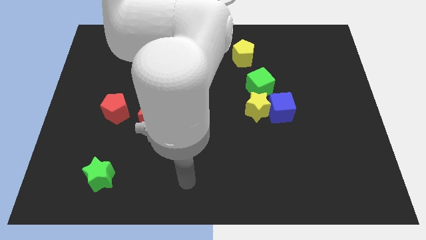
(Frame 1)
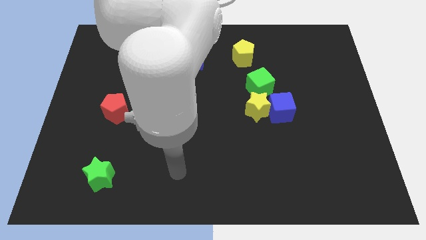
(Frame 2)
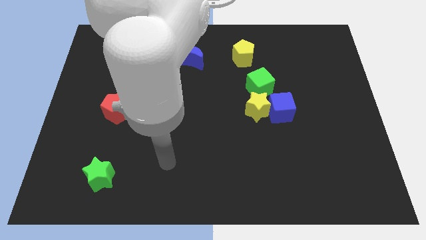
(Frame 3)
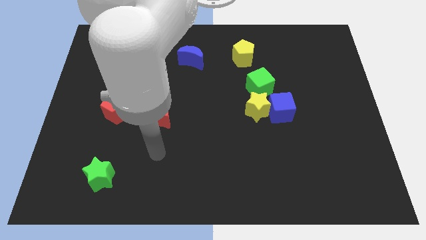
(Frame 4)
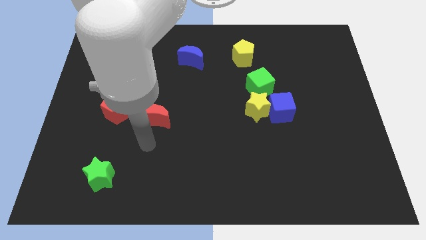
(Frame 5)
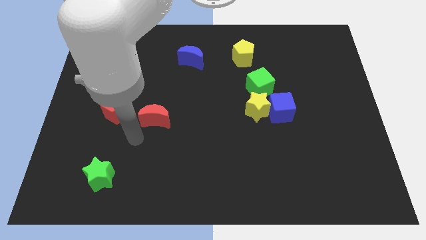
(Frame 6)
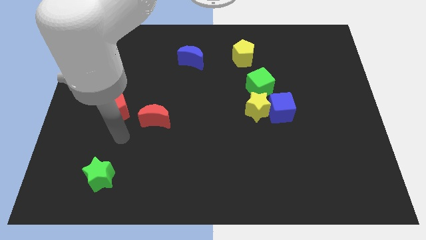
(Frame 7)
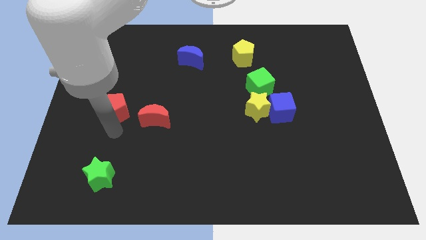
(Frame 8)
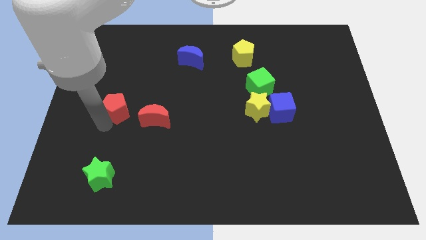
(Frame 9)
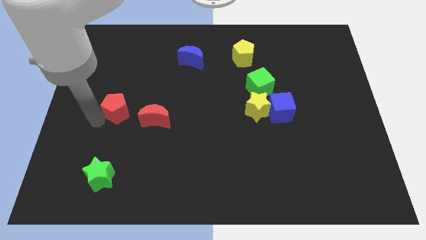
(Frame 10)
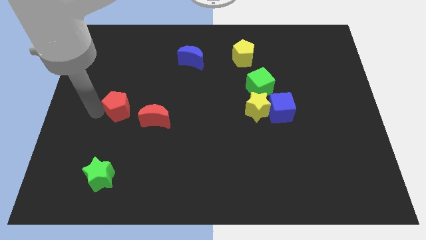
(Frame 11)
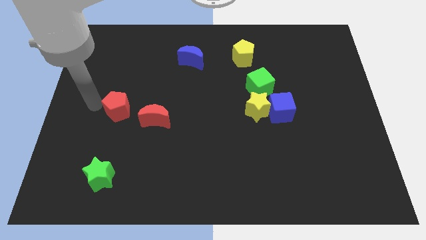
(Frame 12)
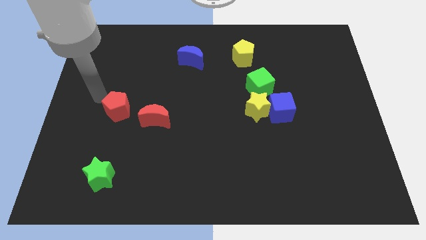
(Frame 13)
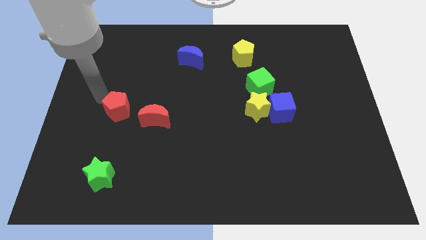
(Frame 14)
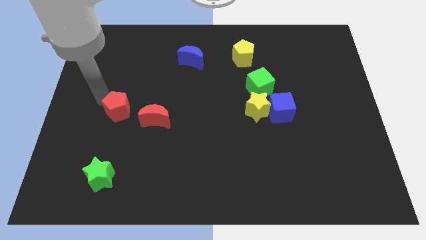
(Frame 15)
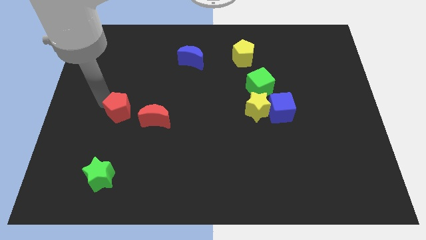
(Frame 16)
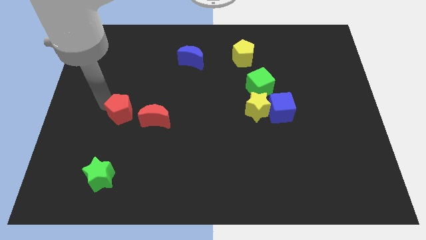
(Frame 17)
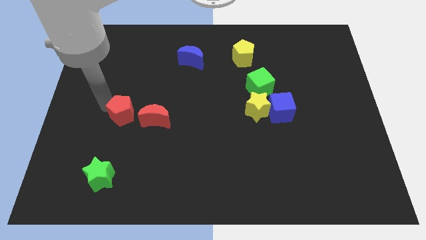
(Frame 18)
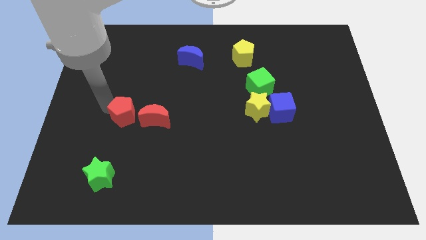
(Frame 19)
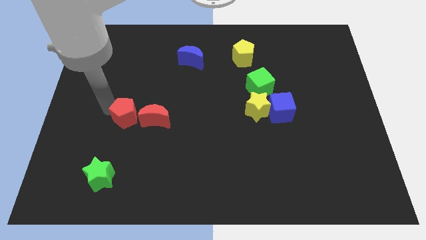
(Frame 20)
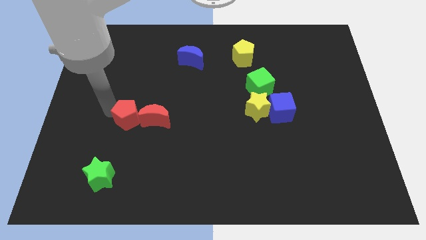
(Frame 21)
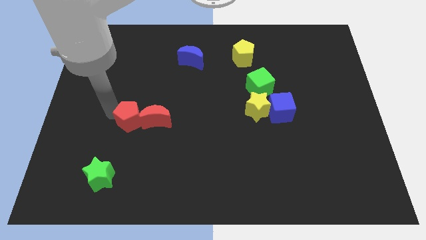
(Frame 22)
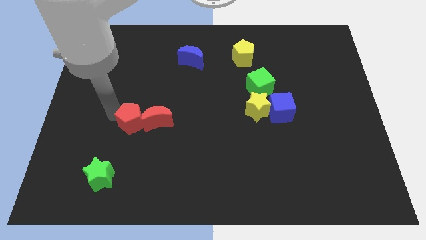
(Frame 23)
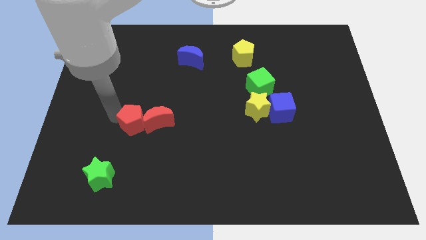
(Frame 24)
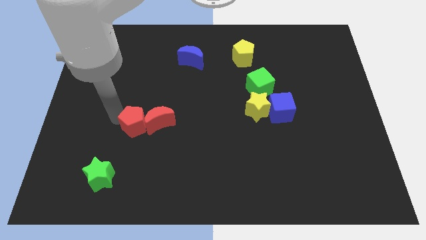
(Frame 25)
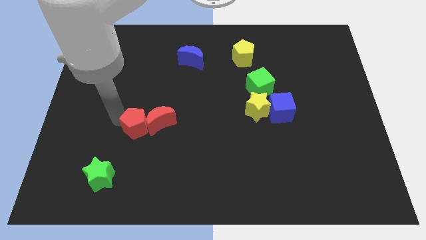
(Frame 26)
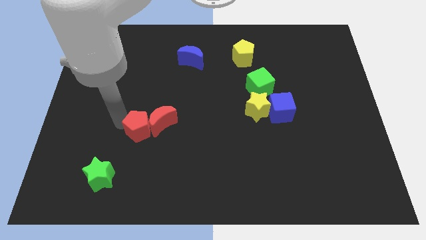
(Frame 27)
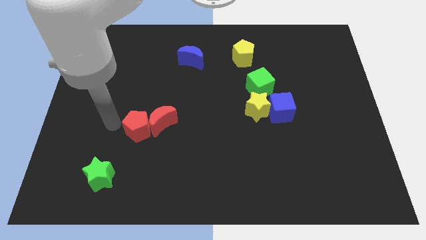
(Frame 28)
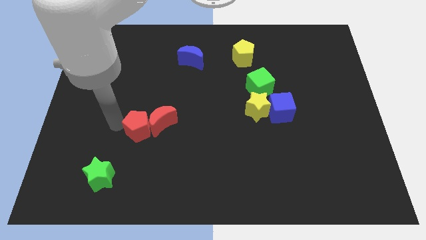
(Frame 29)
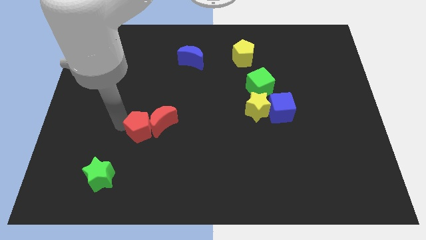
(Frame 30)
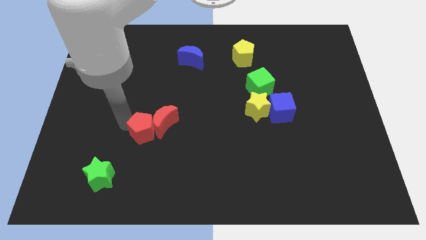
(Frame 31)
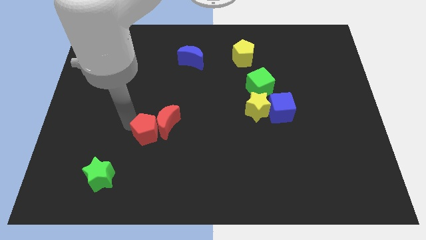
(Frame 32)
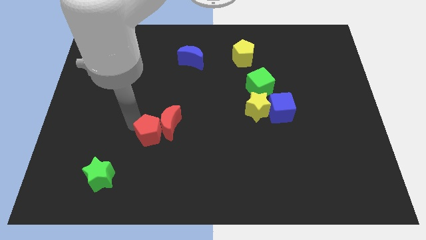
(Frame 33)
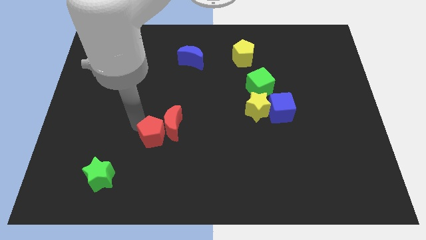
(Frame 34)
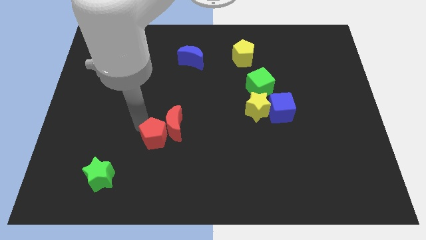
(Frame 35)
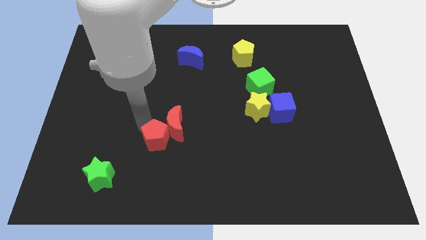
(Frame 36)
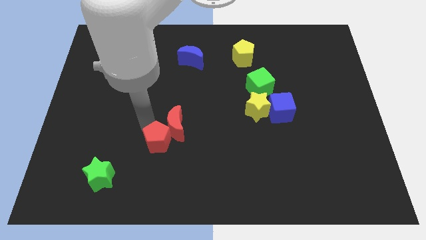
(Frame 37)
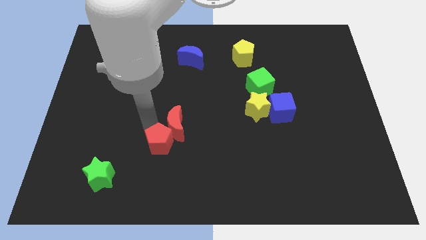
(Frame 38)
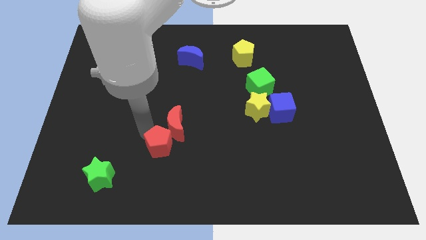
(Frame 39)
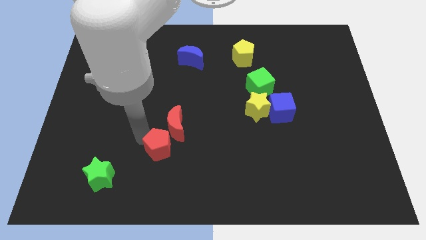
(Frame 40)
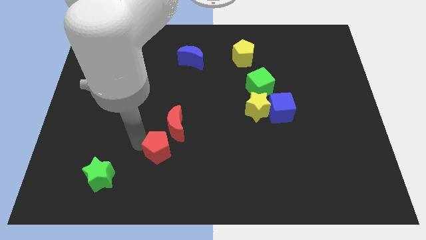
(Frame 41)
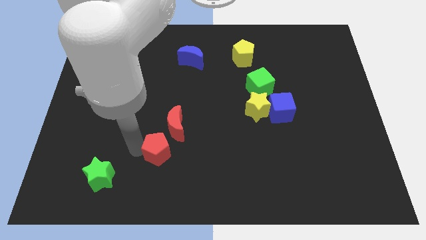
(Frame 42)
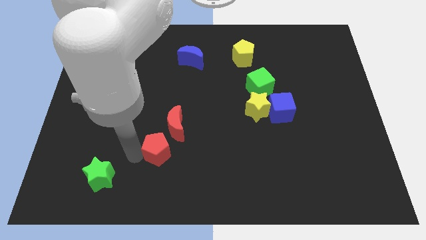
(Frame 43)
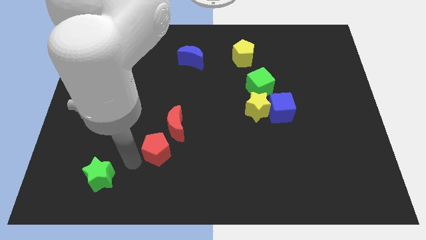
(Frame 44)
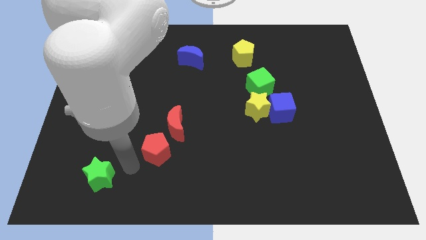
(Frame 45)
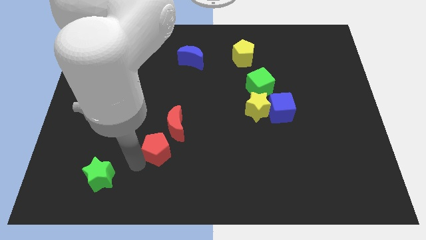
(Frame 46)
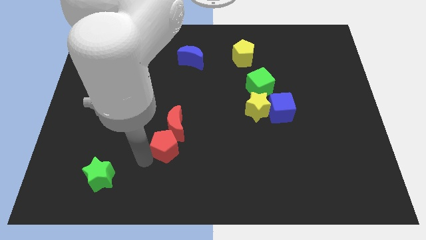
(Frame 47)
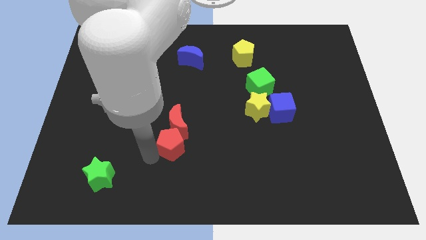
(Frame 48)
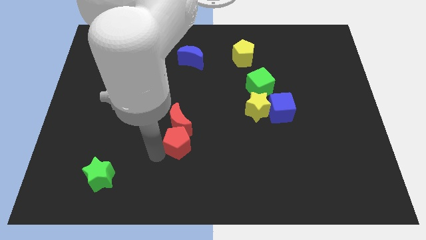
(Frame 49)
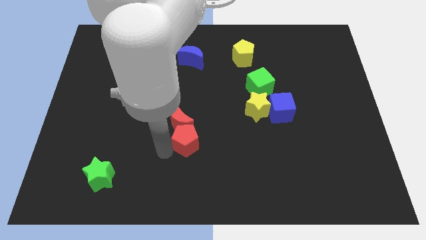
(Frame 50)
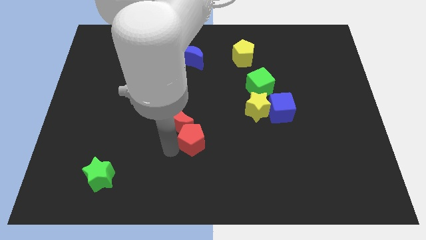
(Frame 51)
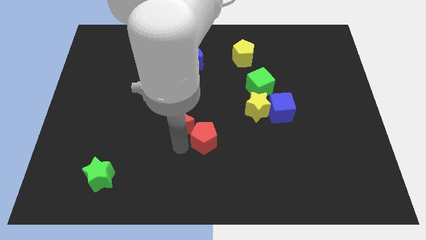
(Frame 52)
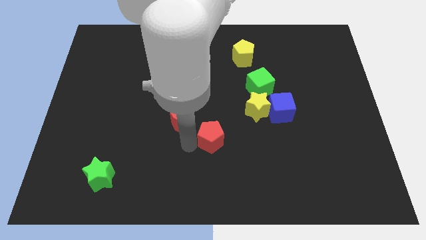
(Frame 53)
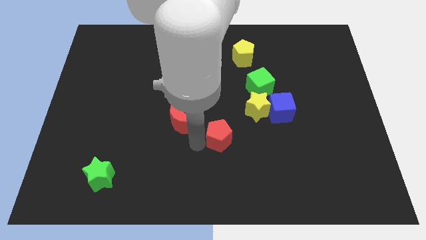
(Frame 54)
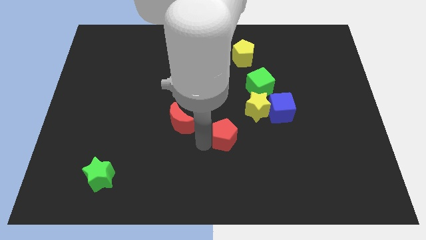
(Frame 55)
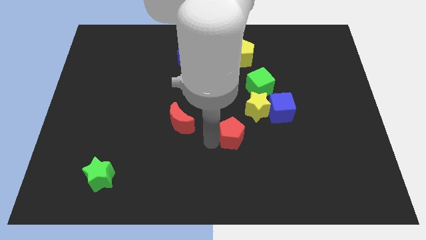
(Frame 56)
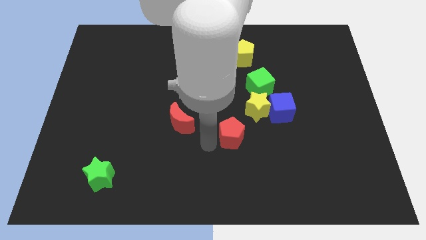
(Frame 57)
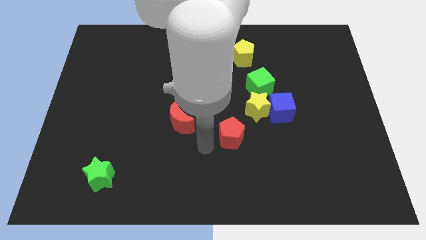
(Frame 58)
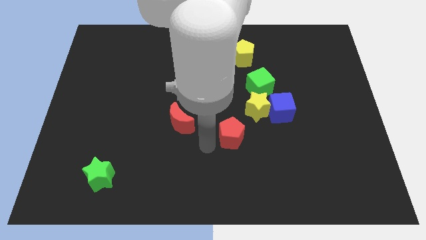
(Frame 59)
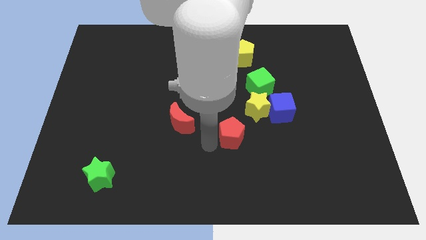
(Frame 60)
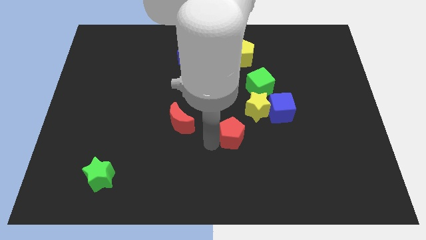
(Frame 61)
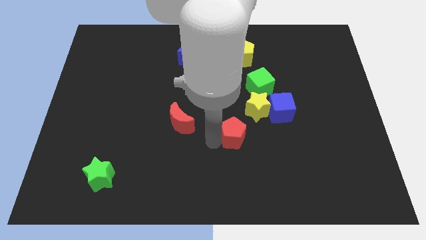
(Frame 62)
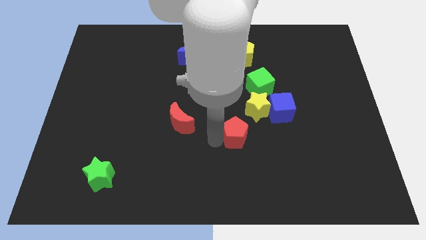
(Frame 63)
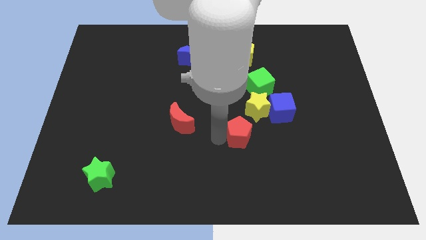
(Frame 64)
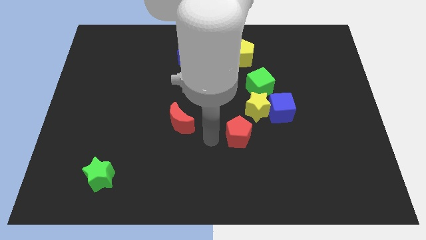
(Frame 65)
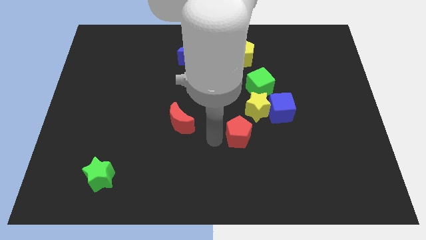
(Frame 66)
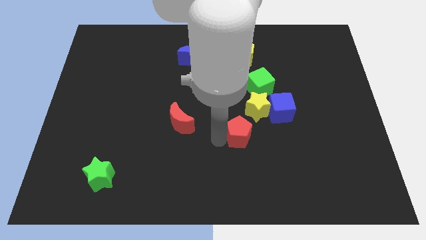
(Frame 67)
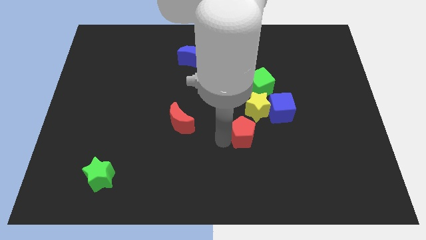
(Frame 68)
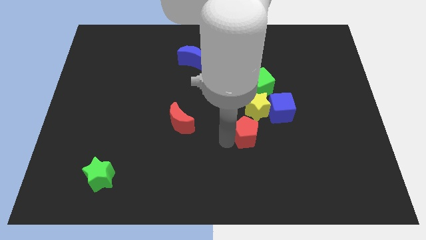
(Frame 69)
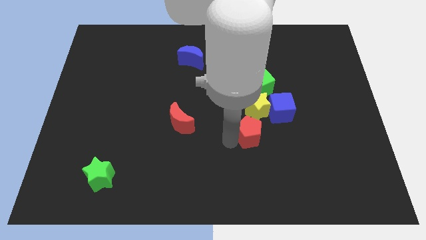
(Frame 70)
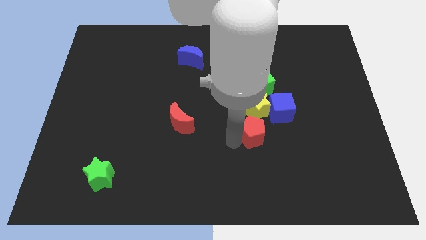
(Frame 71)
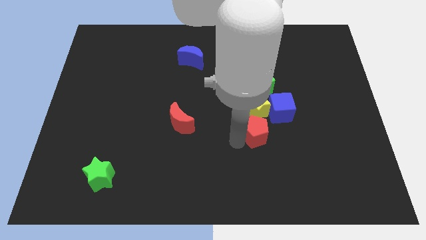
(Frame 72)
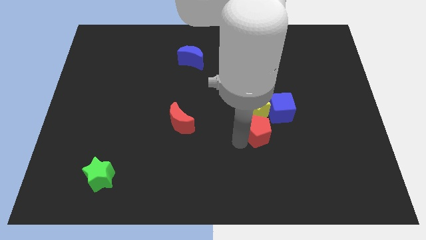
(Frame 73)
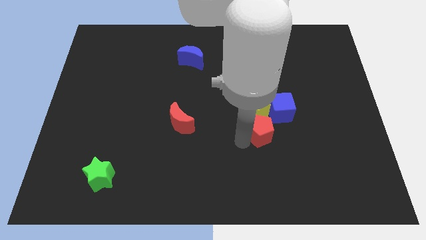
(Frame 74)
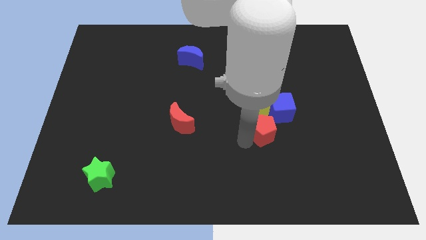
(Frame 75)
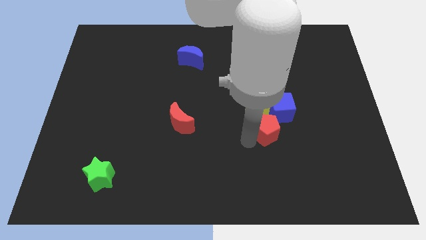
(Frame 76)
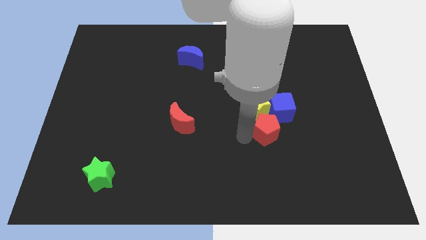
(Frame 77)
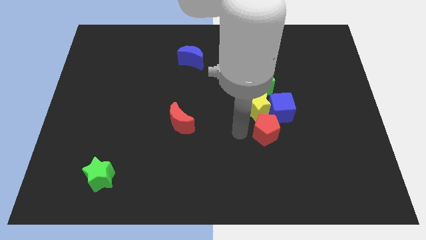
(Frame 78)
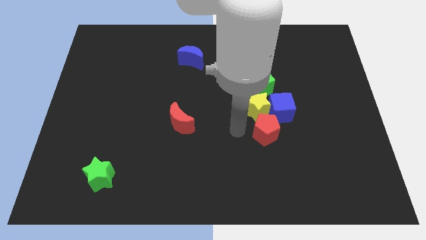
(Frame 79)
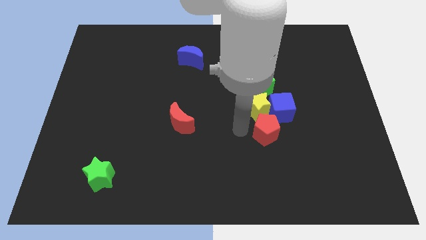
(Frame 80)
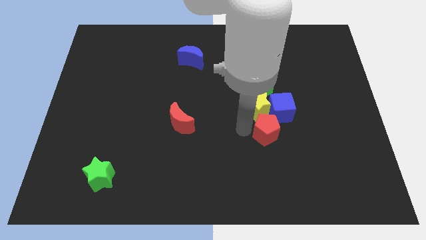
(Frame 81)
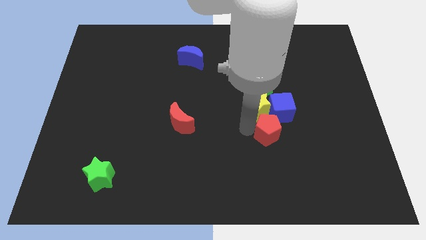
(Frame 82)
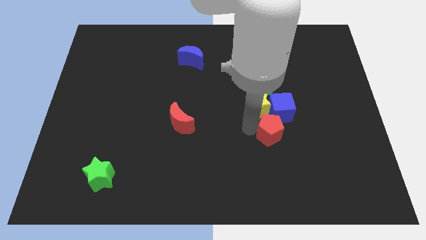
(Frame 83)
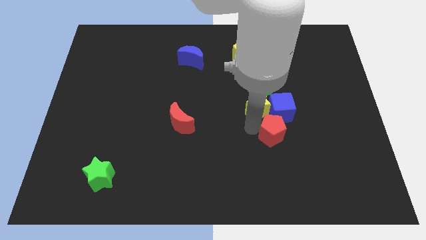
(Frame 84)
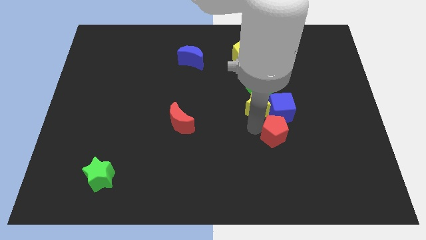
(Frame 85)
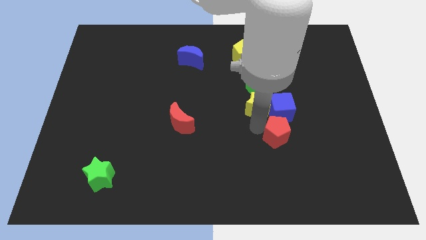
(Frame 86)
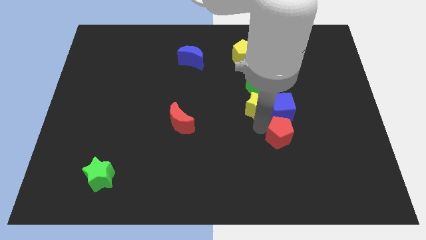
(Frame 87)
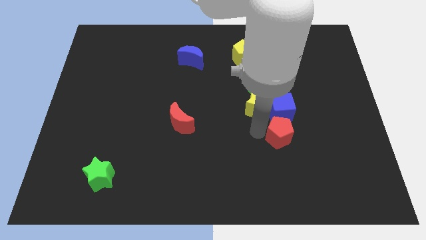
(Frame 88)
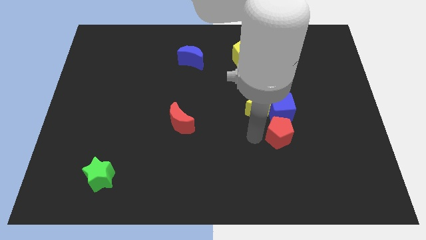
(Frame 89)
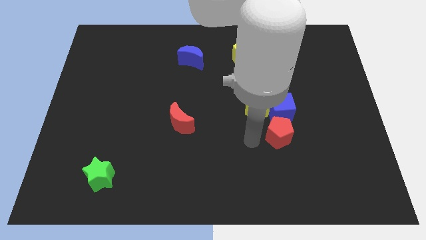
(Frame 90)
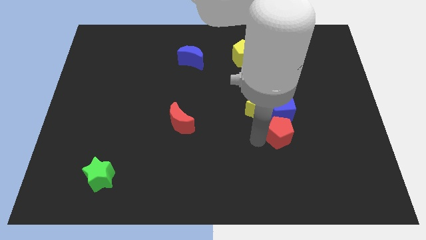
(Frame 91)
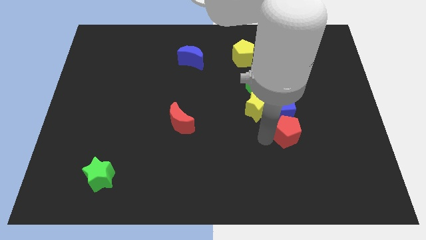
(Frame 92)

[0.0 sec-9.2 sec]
push the red pentagon to the bottom right of the blue cube
